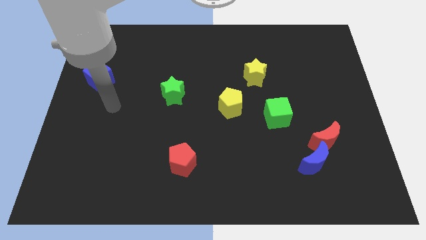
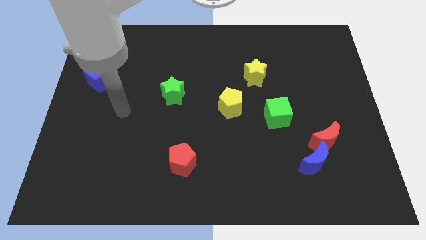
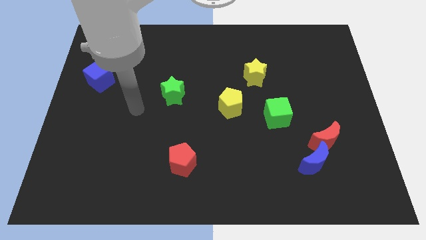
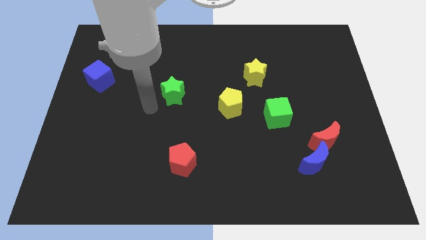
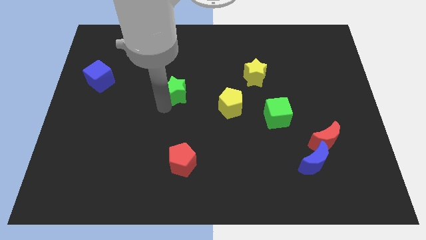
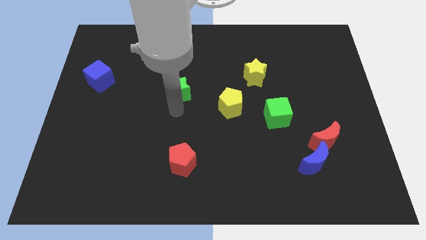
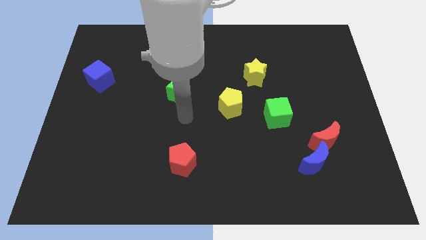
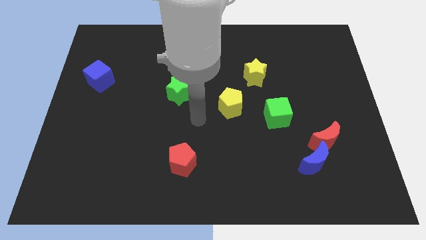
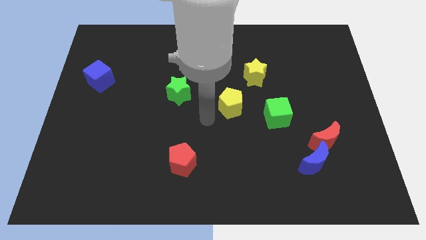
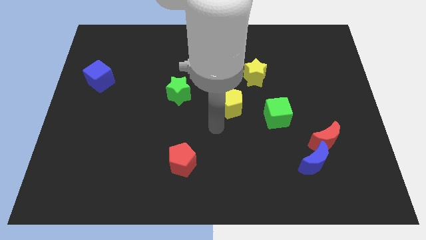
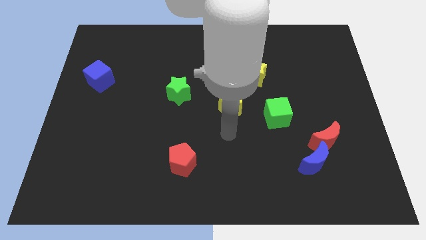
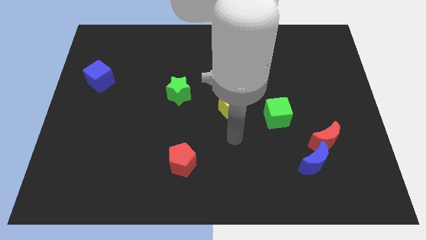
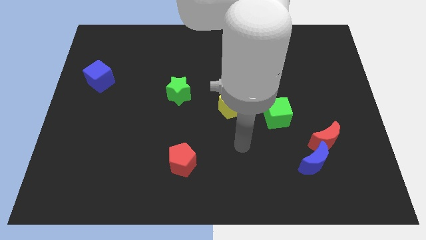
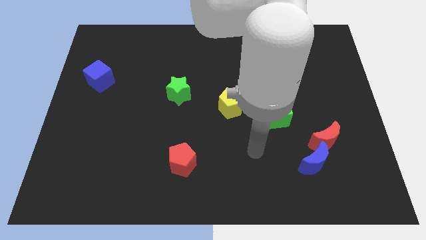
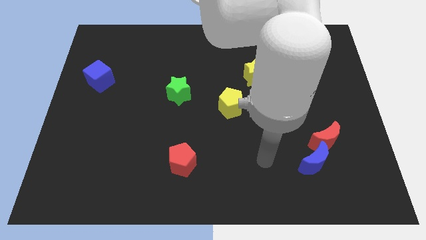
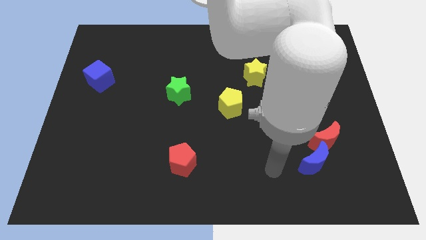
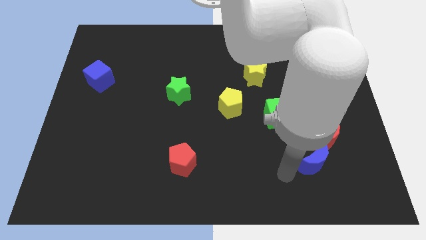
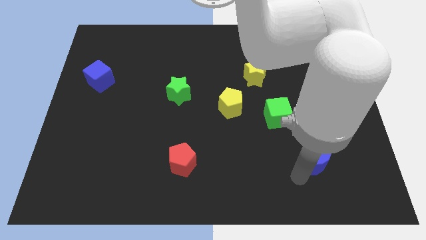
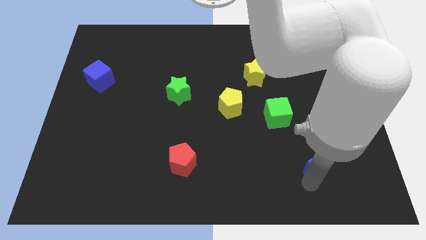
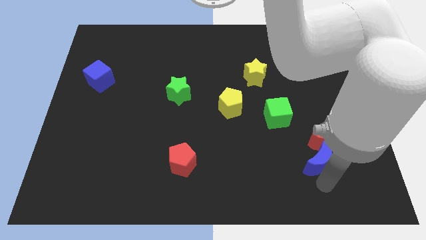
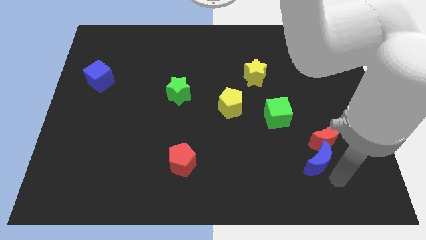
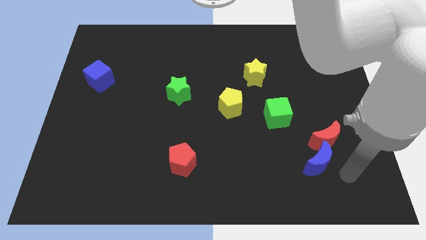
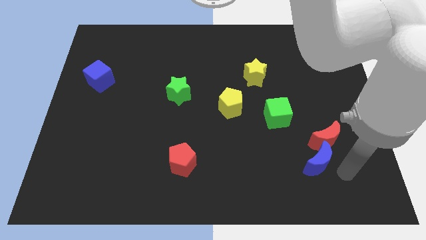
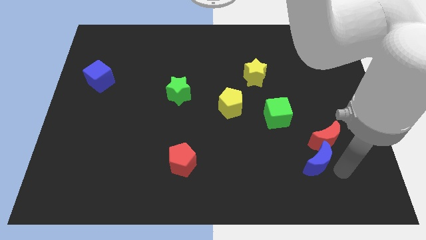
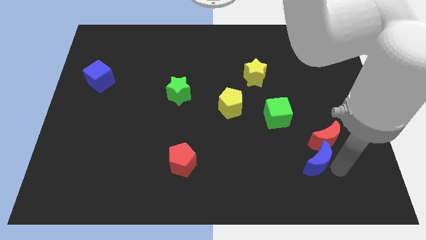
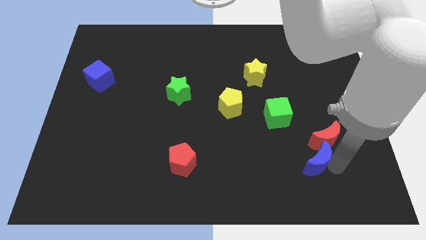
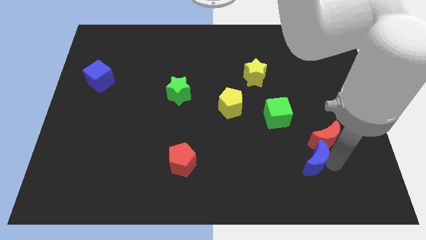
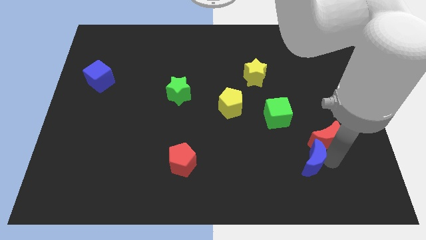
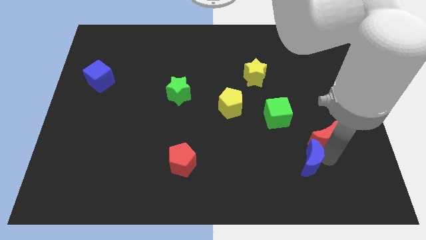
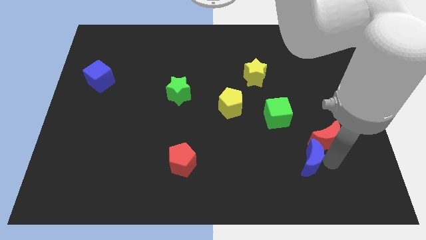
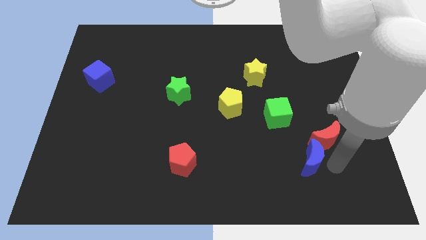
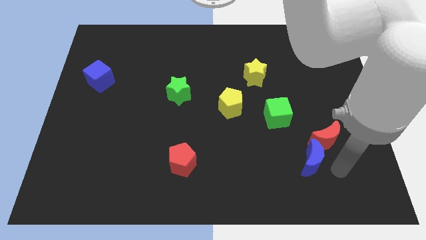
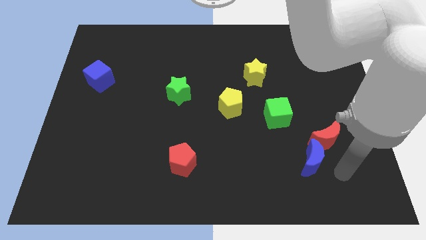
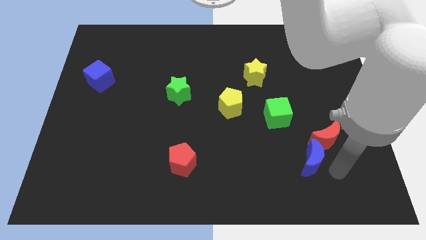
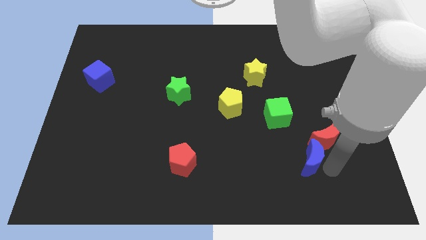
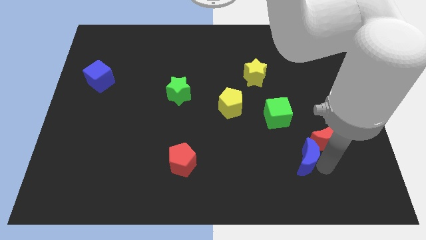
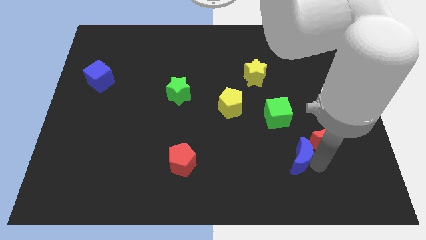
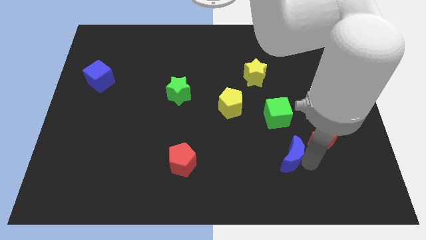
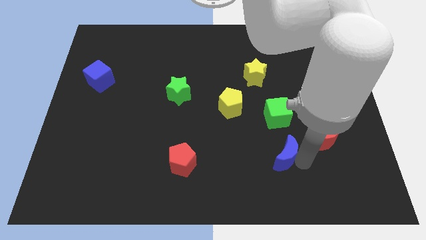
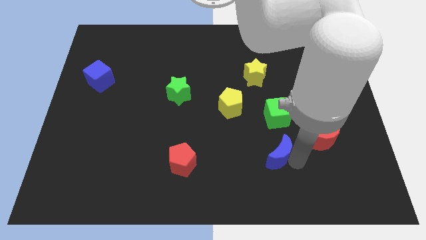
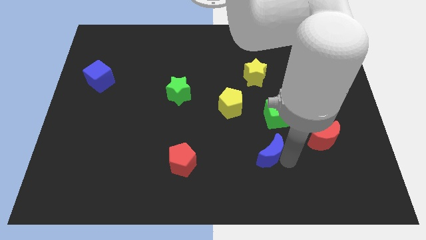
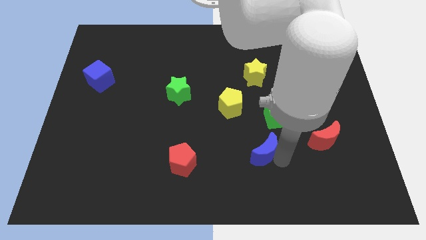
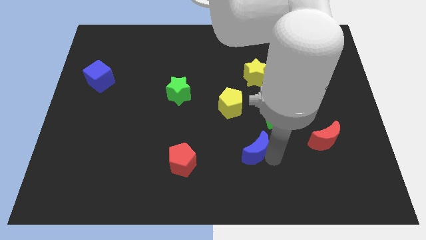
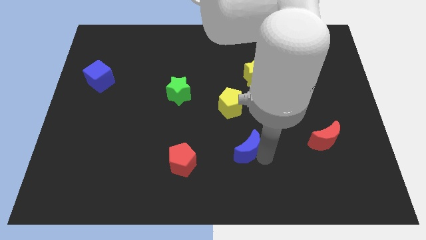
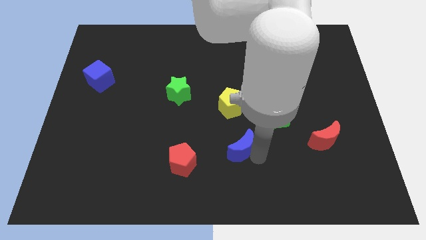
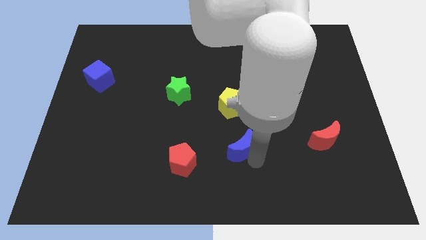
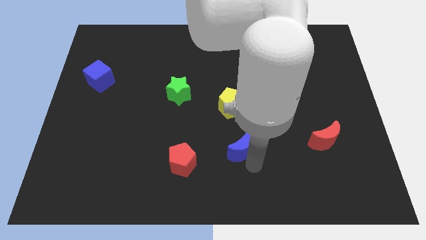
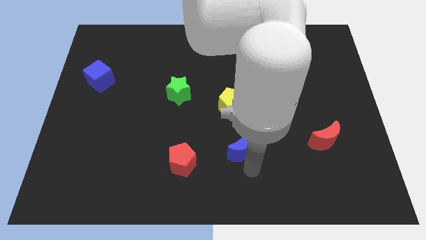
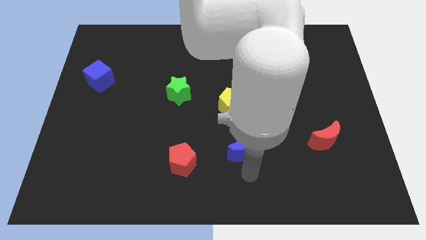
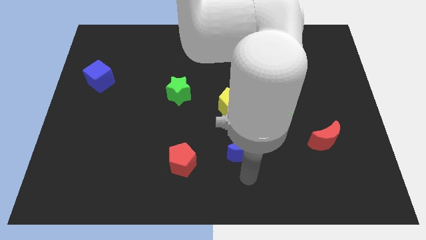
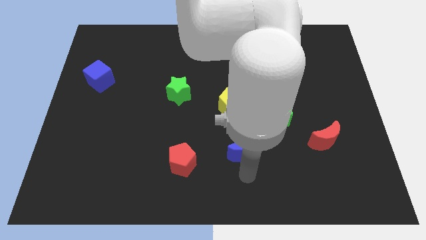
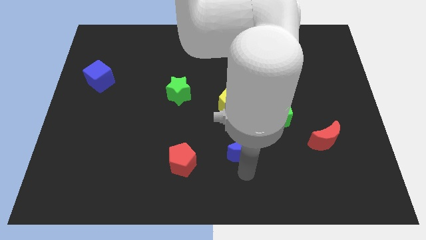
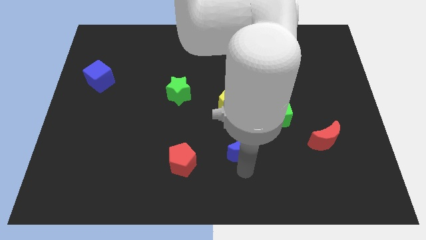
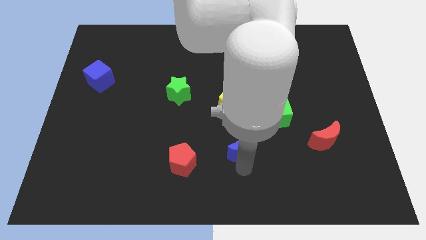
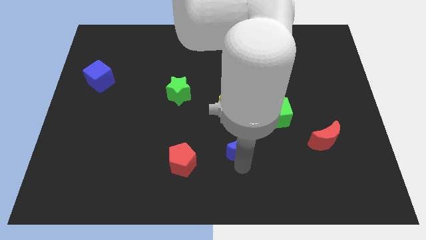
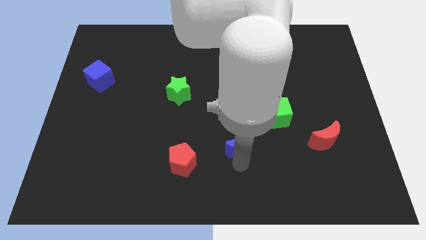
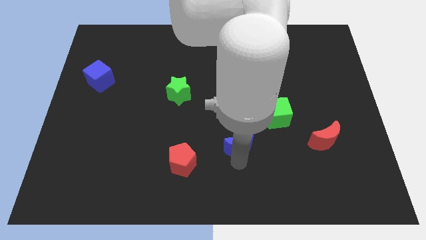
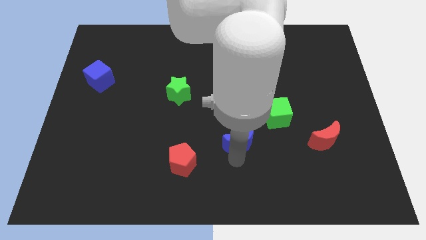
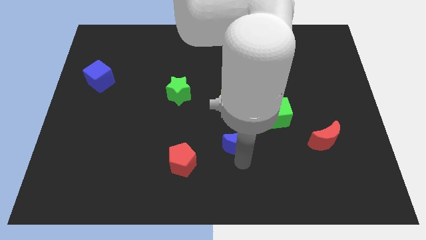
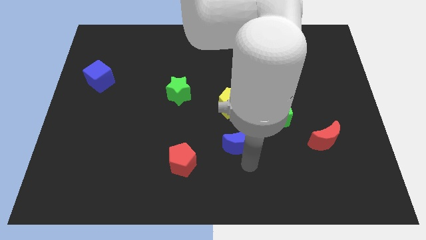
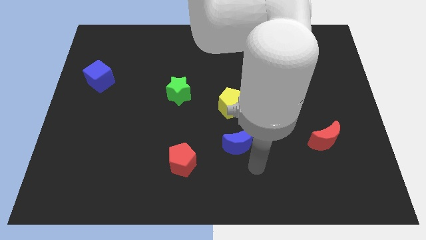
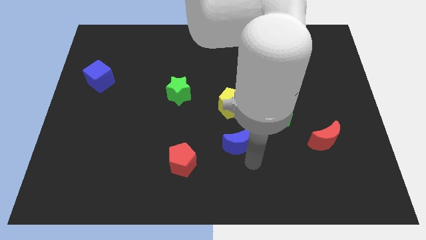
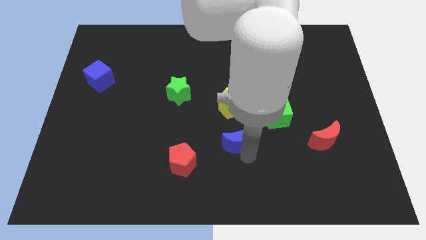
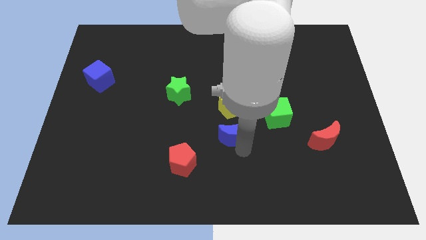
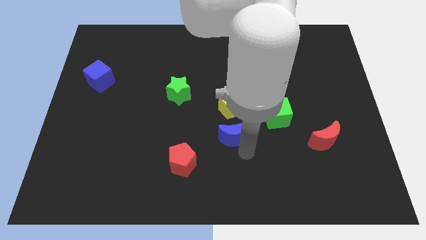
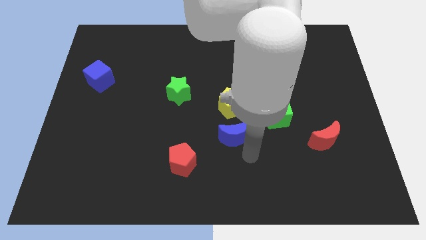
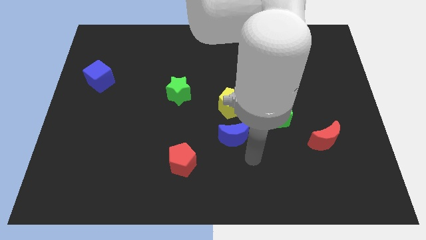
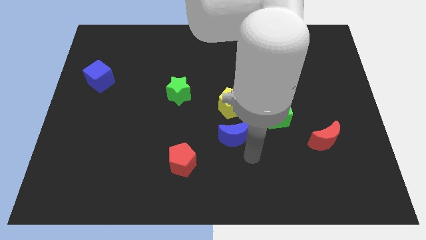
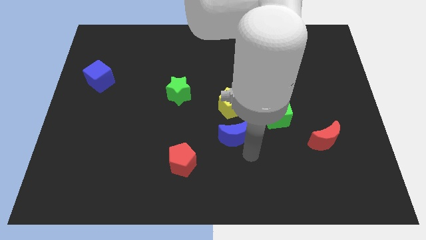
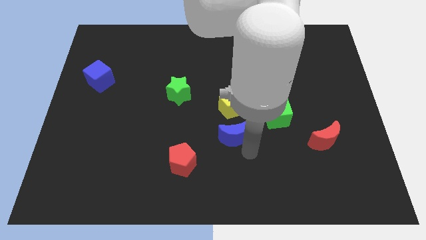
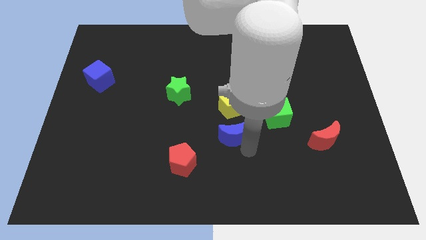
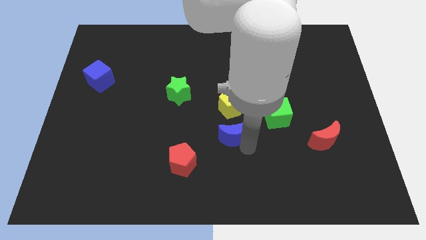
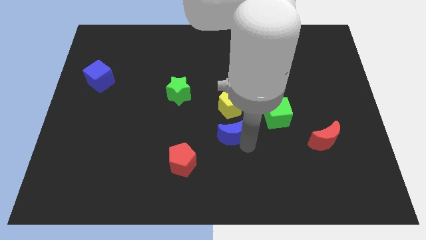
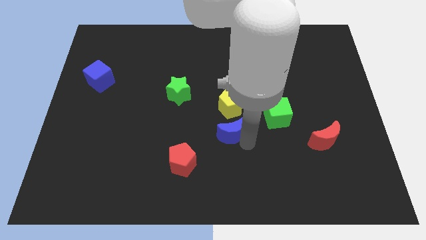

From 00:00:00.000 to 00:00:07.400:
put the blue moon left of the green cube
